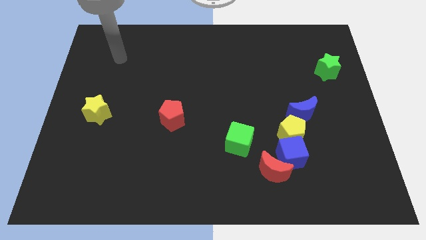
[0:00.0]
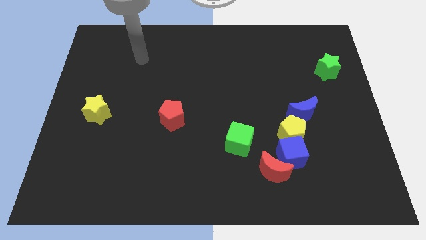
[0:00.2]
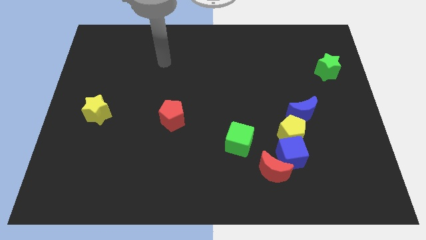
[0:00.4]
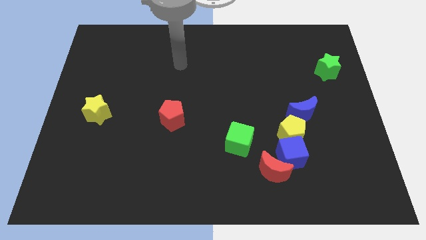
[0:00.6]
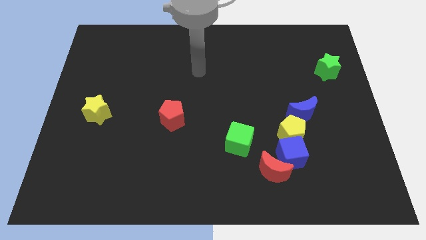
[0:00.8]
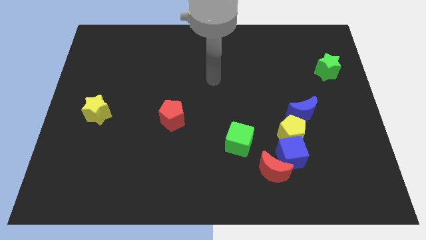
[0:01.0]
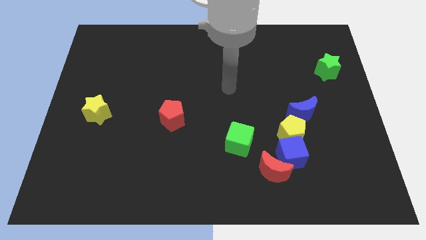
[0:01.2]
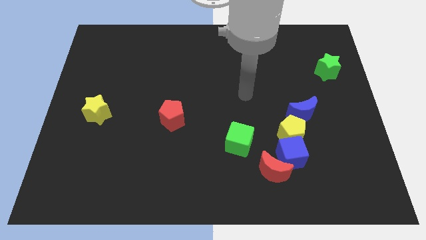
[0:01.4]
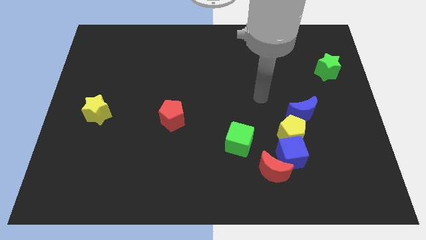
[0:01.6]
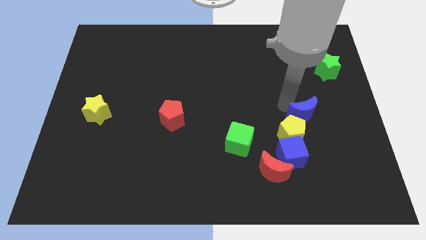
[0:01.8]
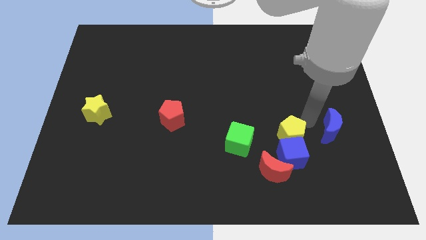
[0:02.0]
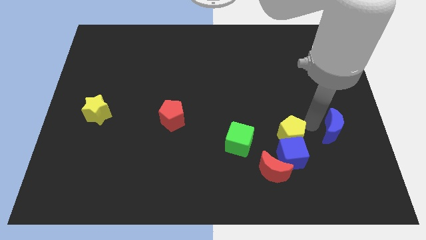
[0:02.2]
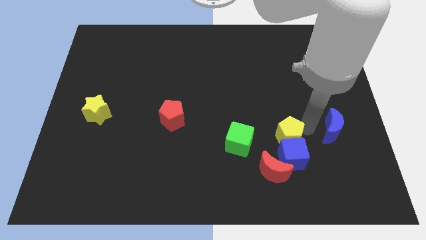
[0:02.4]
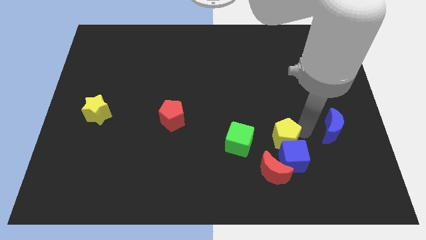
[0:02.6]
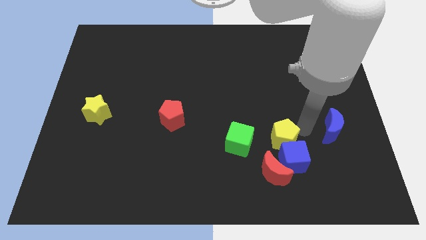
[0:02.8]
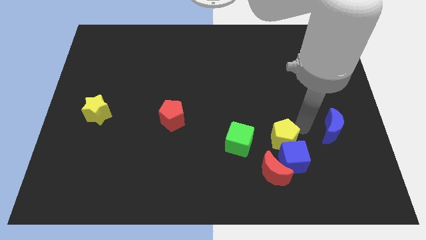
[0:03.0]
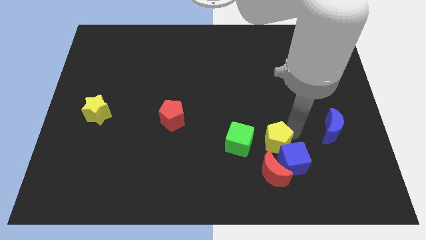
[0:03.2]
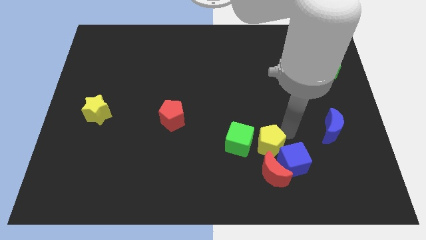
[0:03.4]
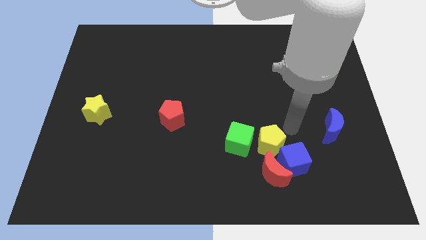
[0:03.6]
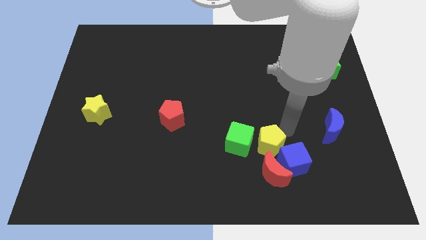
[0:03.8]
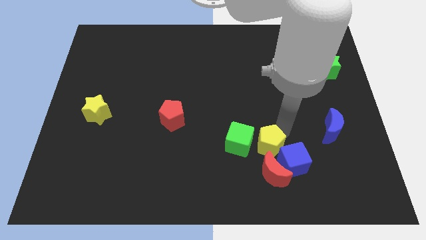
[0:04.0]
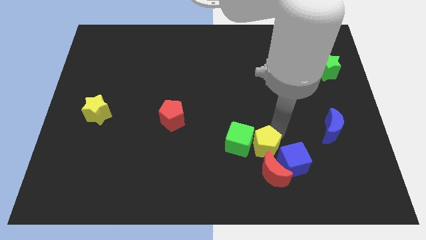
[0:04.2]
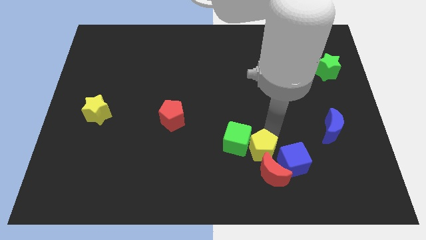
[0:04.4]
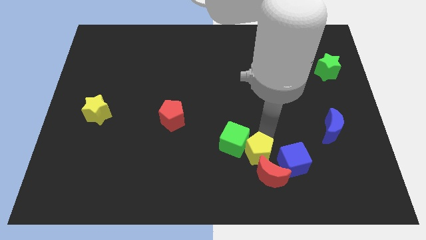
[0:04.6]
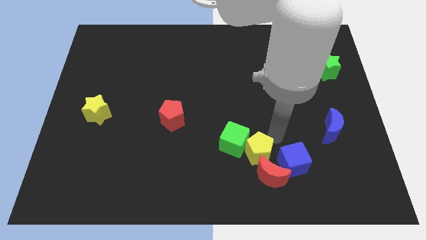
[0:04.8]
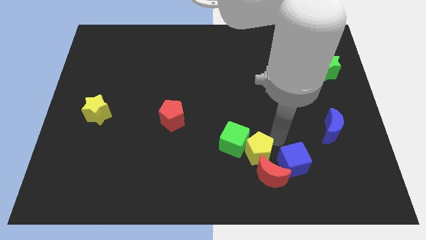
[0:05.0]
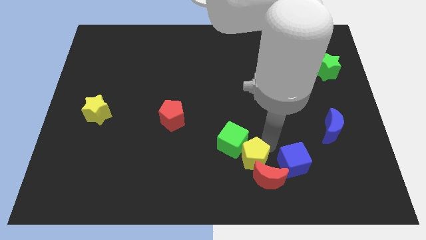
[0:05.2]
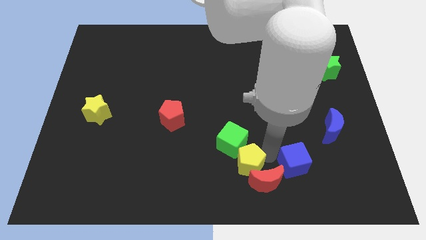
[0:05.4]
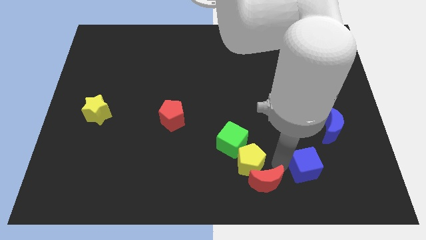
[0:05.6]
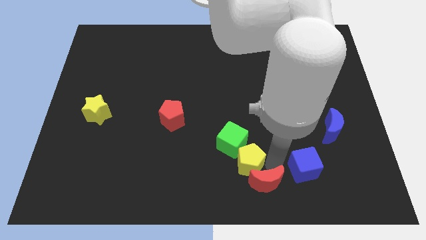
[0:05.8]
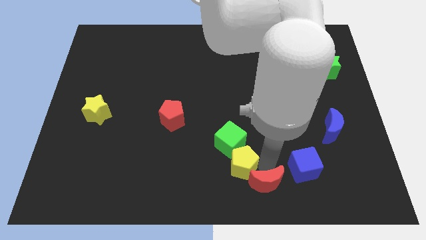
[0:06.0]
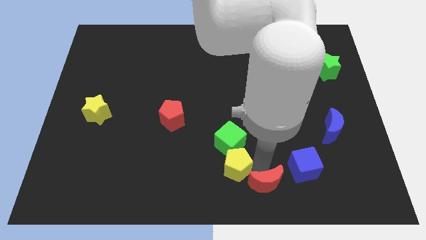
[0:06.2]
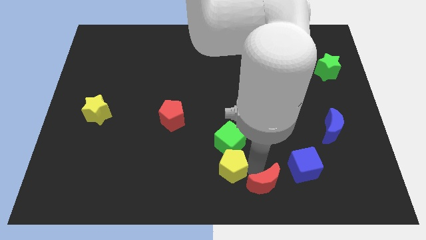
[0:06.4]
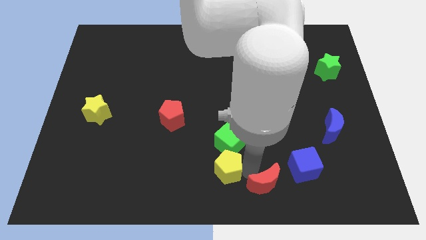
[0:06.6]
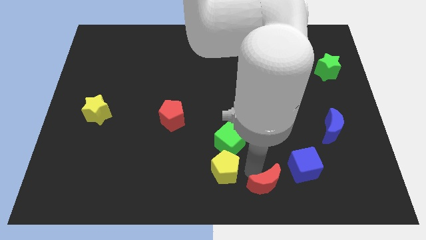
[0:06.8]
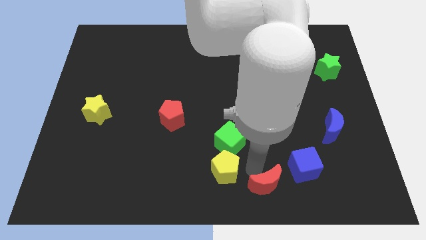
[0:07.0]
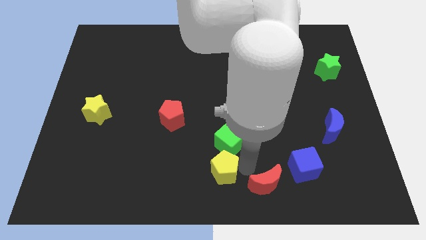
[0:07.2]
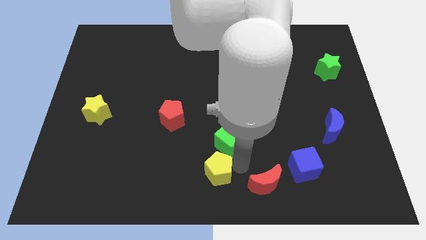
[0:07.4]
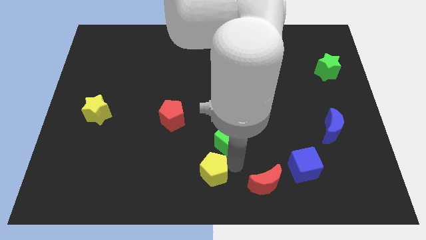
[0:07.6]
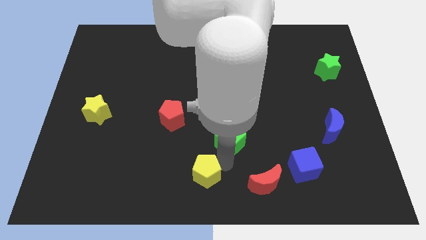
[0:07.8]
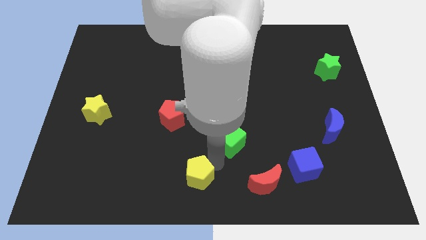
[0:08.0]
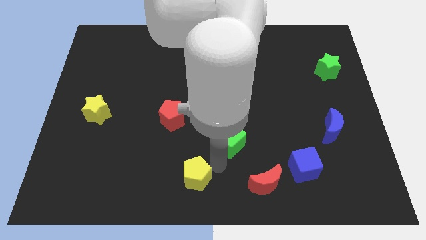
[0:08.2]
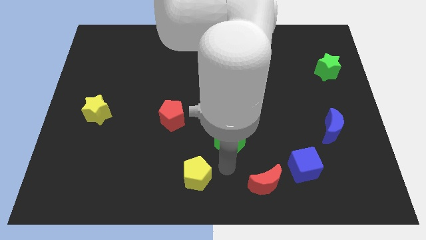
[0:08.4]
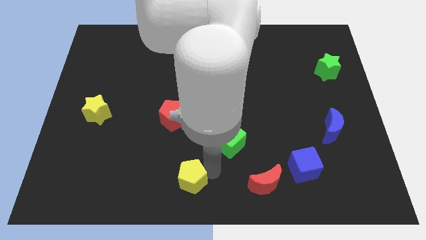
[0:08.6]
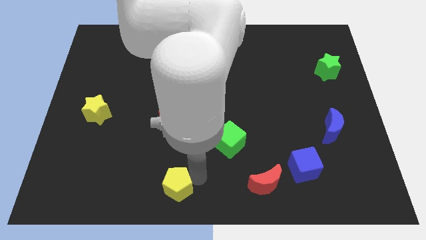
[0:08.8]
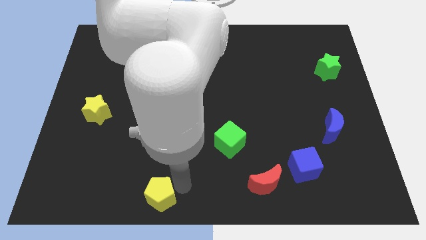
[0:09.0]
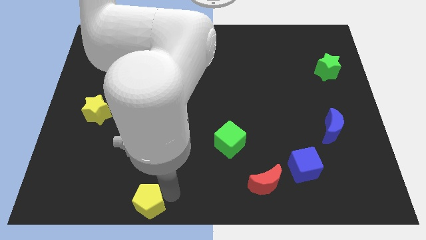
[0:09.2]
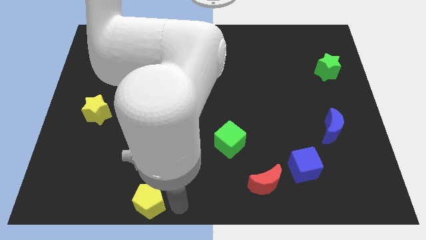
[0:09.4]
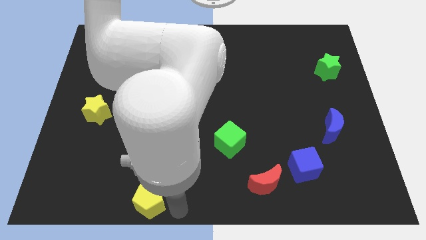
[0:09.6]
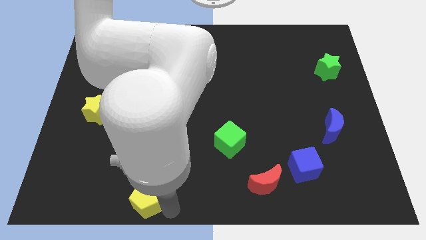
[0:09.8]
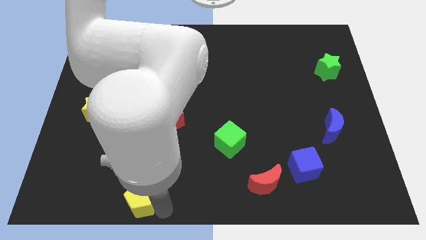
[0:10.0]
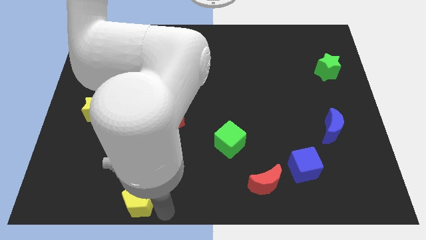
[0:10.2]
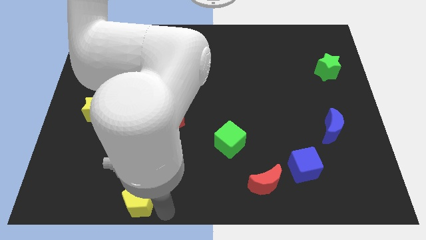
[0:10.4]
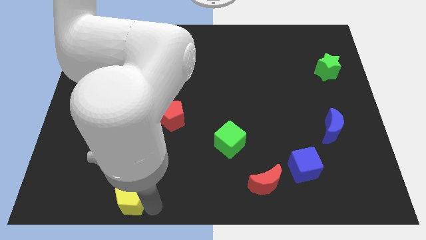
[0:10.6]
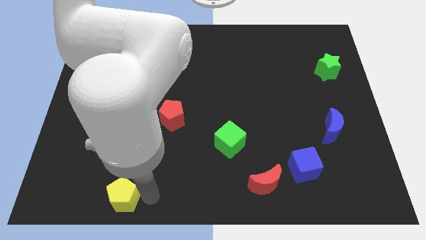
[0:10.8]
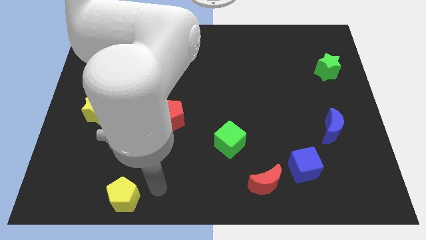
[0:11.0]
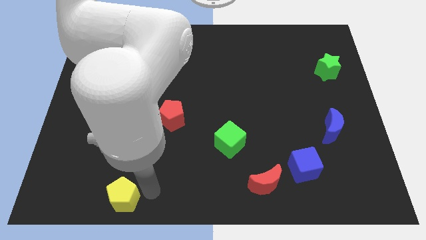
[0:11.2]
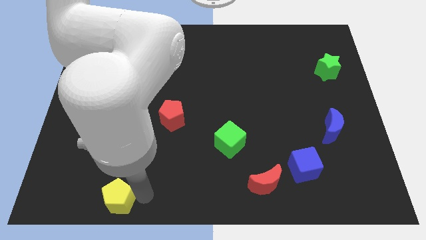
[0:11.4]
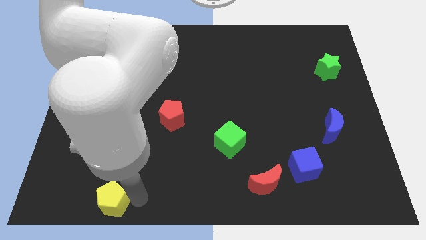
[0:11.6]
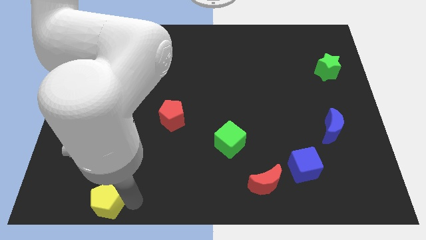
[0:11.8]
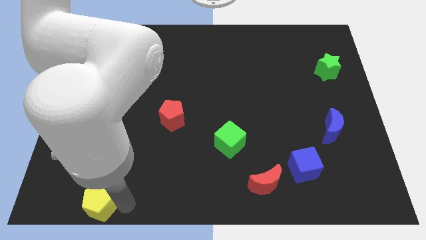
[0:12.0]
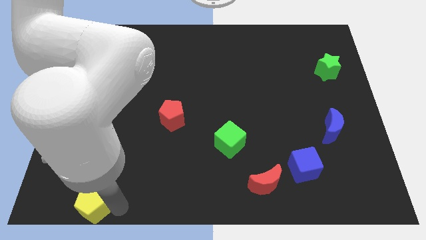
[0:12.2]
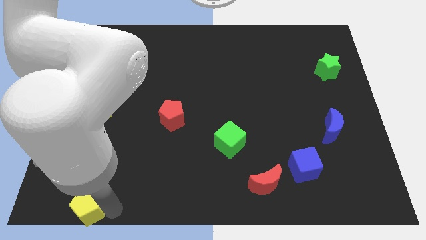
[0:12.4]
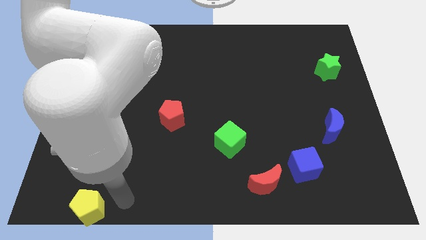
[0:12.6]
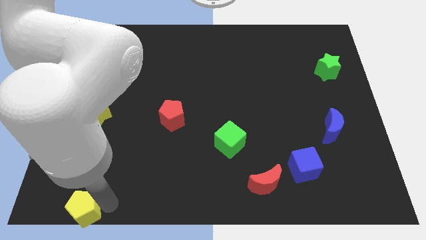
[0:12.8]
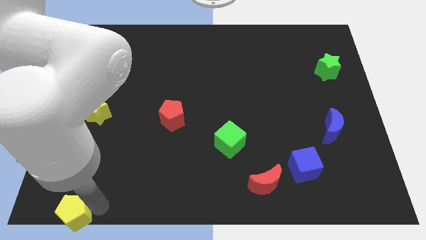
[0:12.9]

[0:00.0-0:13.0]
slide the yellow pentagon to the bottom left corner

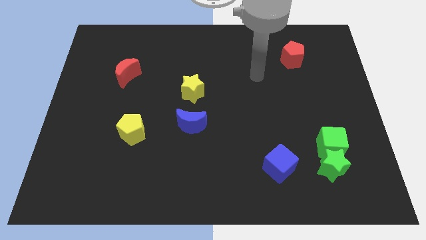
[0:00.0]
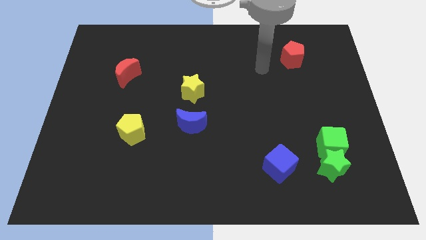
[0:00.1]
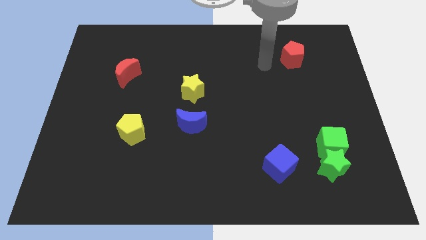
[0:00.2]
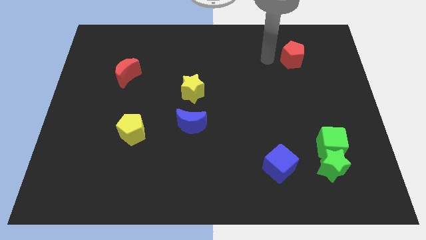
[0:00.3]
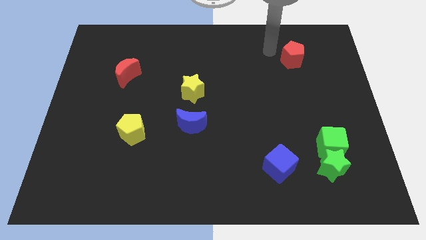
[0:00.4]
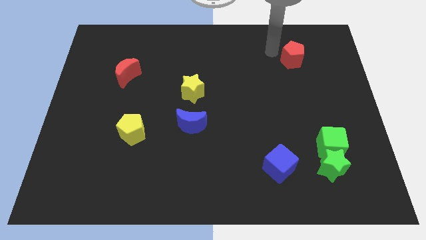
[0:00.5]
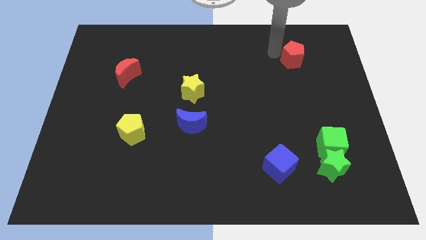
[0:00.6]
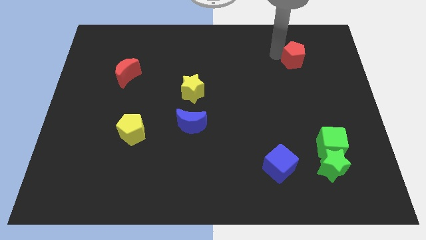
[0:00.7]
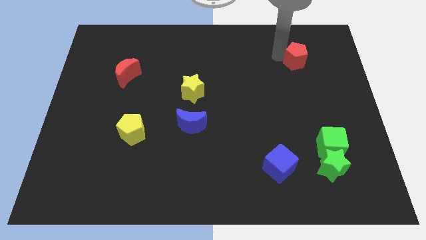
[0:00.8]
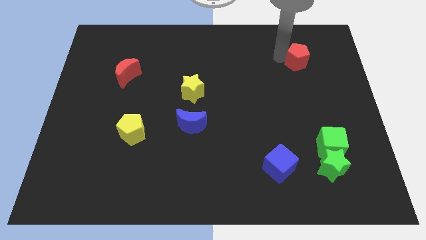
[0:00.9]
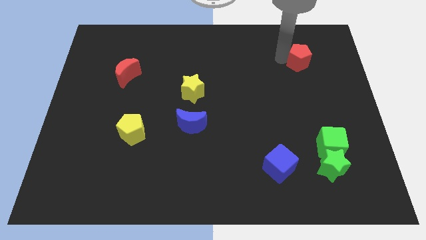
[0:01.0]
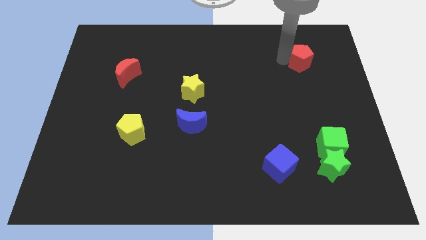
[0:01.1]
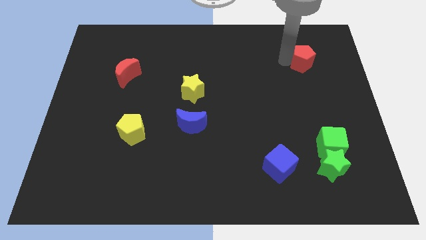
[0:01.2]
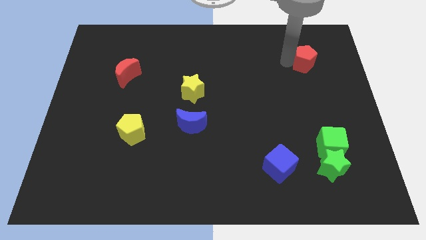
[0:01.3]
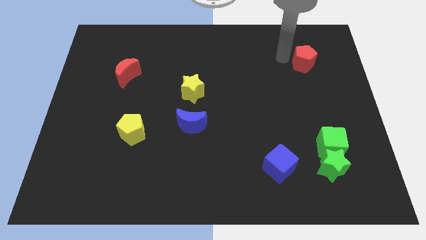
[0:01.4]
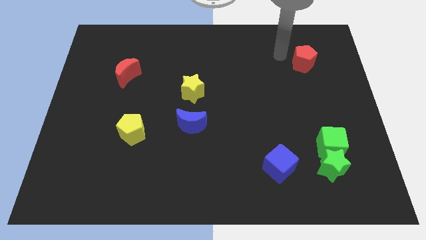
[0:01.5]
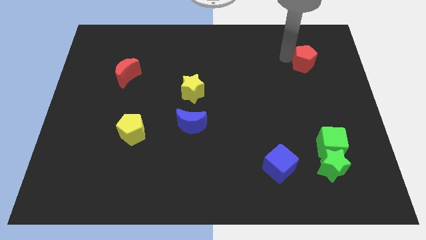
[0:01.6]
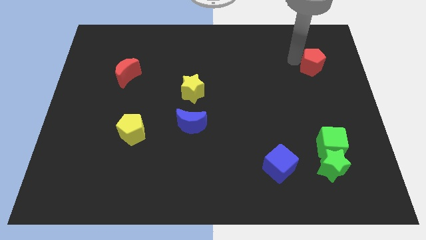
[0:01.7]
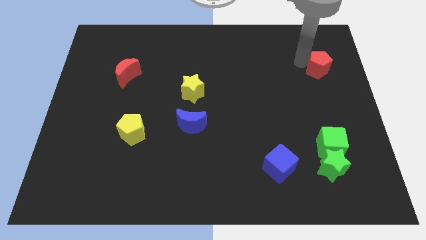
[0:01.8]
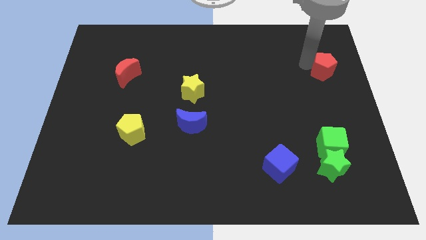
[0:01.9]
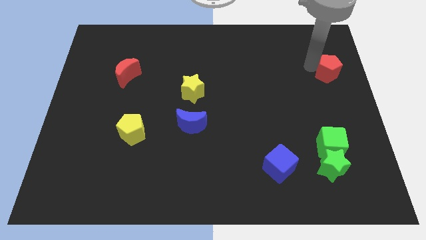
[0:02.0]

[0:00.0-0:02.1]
move the red pentagon to the right side
